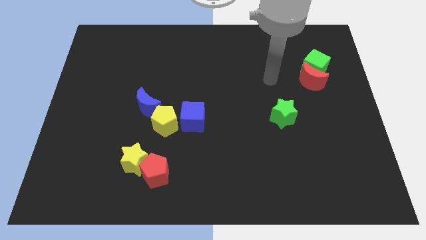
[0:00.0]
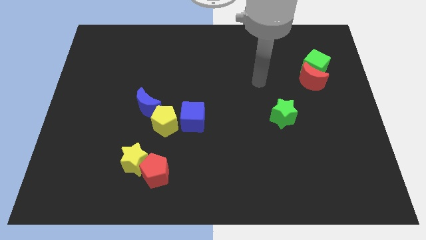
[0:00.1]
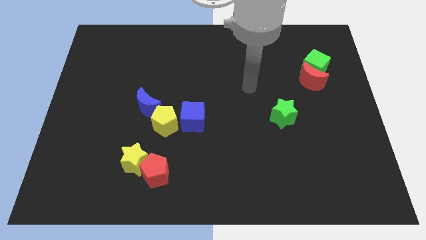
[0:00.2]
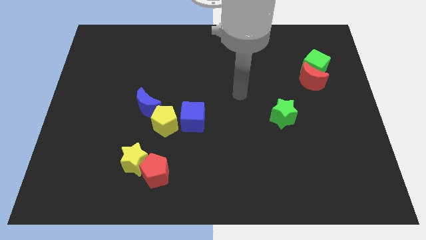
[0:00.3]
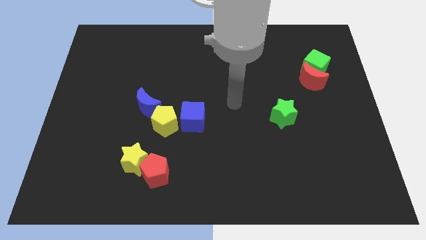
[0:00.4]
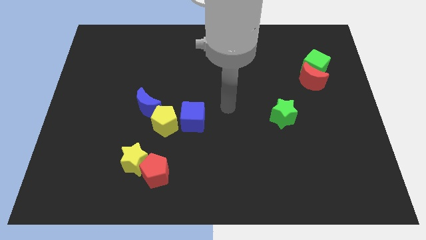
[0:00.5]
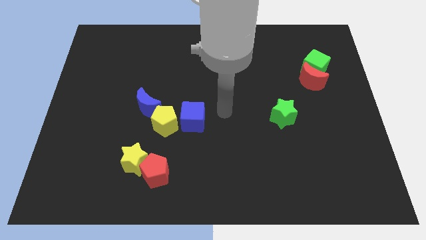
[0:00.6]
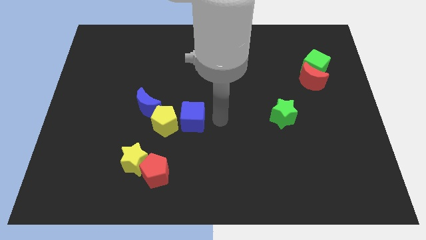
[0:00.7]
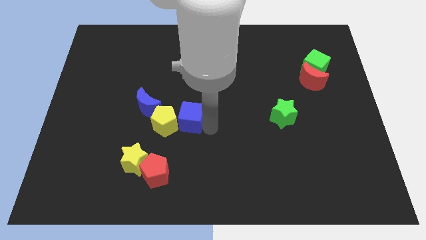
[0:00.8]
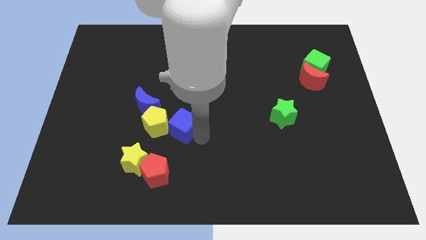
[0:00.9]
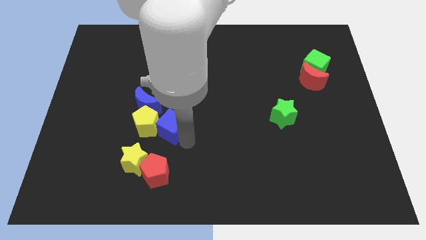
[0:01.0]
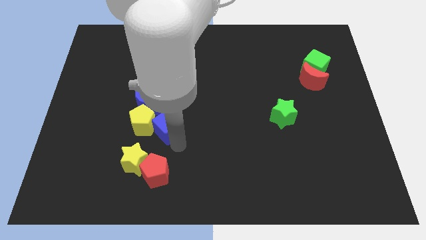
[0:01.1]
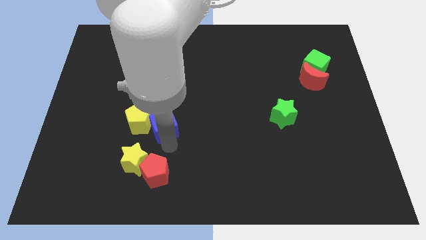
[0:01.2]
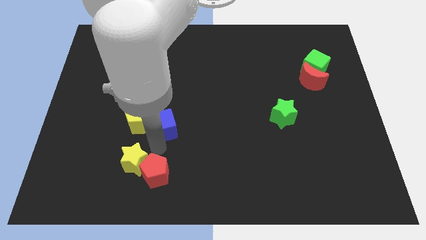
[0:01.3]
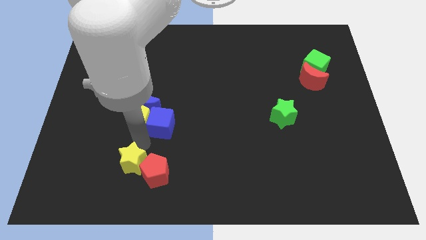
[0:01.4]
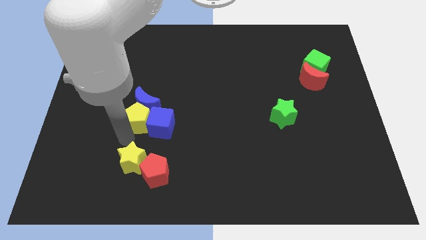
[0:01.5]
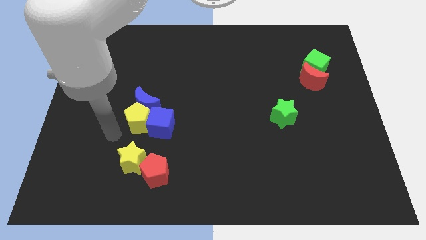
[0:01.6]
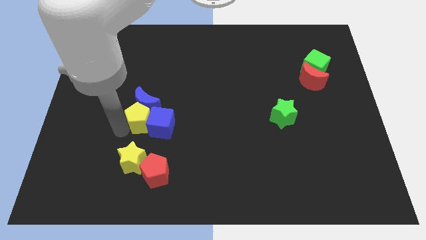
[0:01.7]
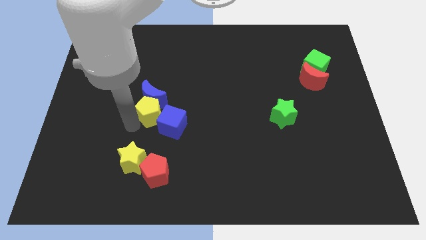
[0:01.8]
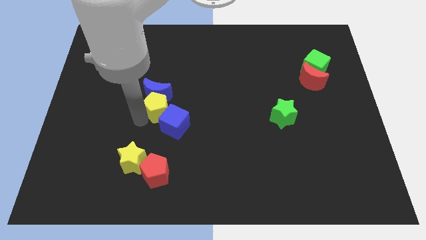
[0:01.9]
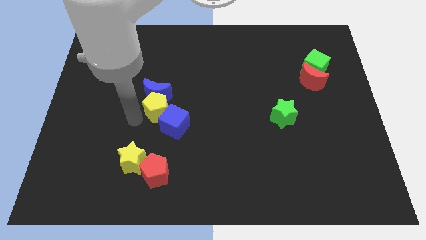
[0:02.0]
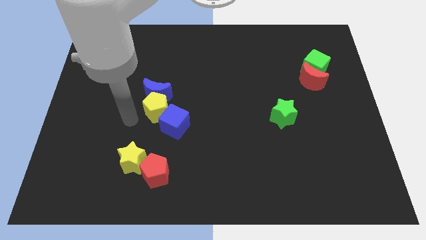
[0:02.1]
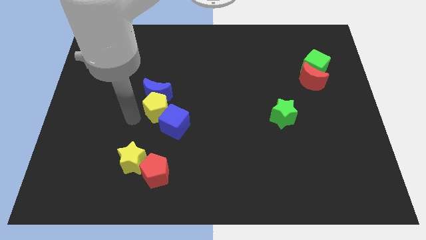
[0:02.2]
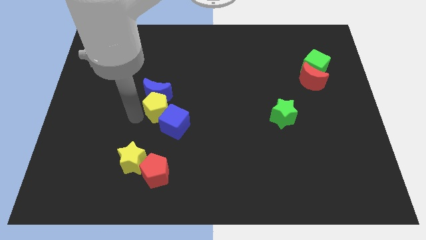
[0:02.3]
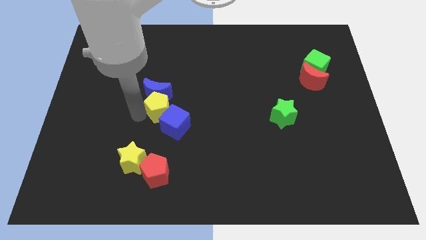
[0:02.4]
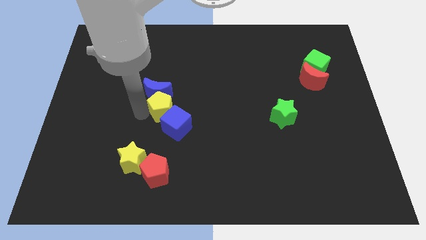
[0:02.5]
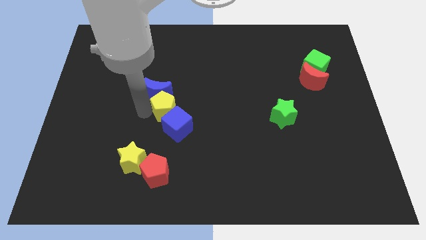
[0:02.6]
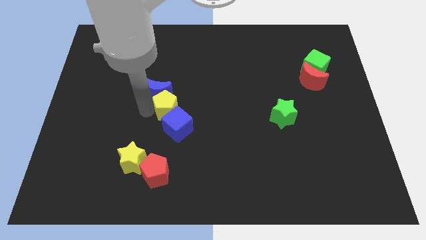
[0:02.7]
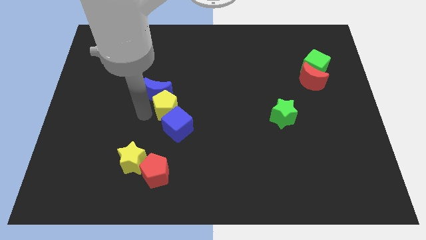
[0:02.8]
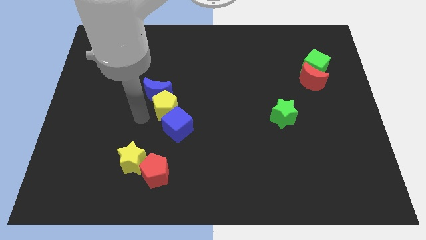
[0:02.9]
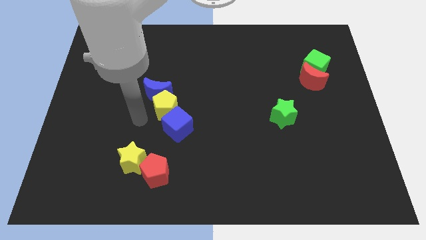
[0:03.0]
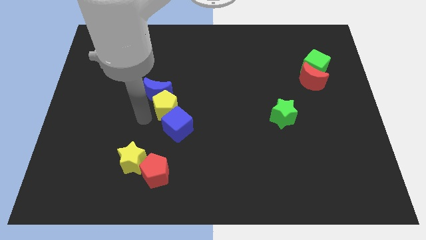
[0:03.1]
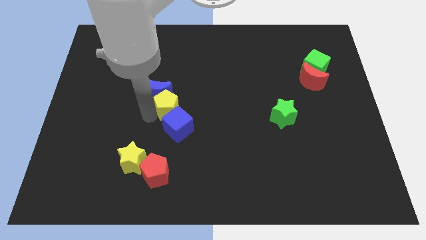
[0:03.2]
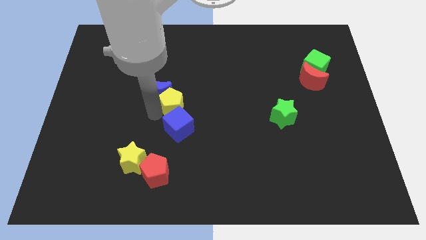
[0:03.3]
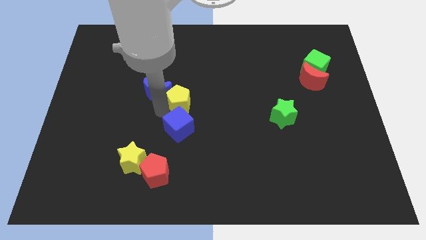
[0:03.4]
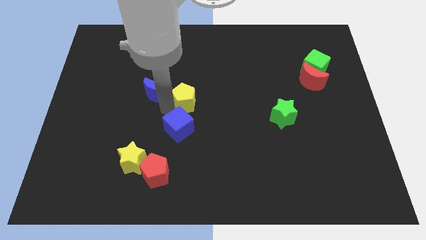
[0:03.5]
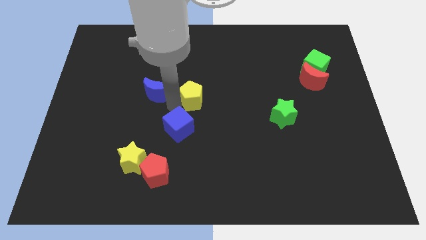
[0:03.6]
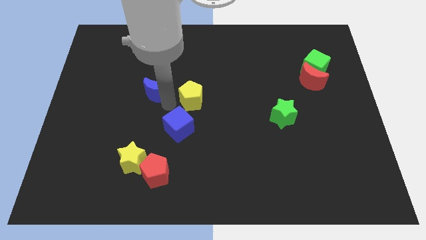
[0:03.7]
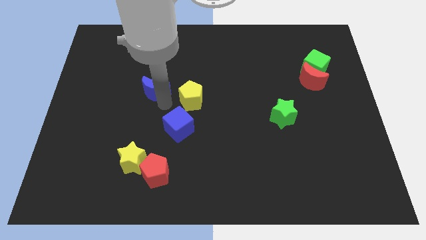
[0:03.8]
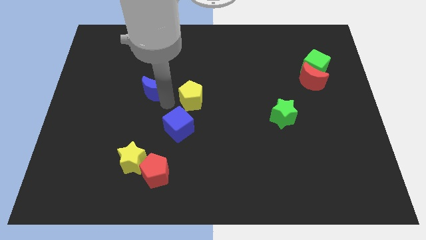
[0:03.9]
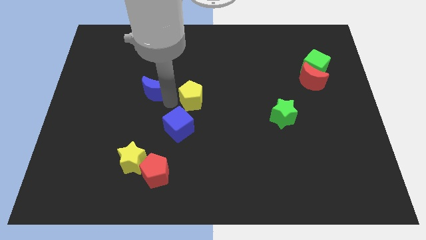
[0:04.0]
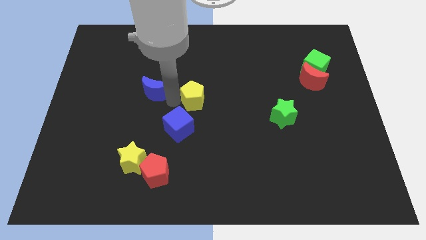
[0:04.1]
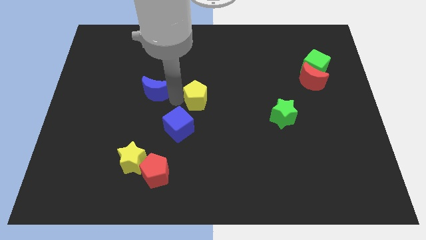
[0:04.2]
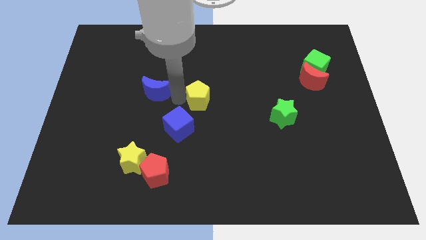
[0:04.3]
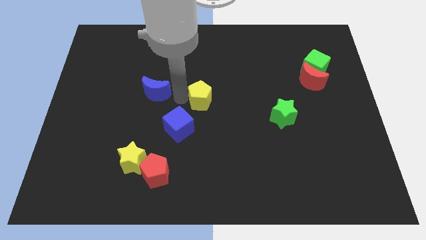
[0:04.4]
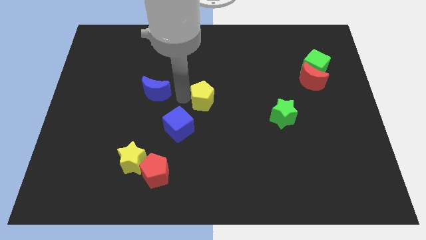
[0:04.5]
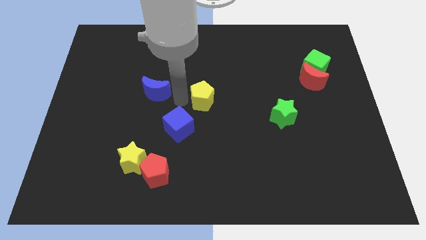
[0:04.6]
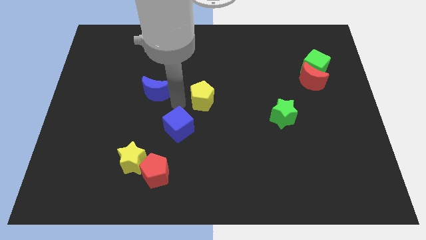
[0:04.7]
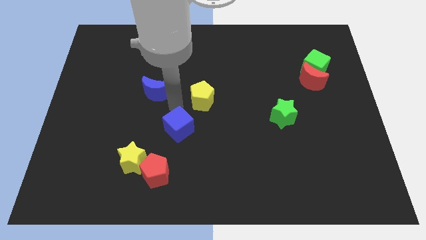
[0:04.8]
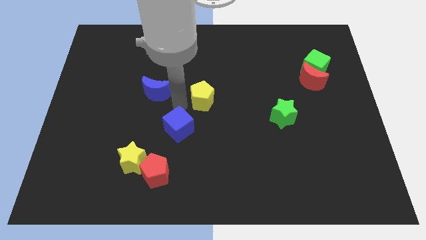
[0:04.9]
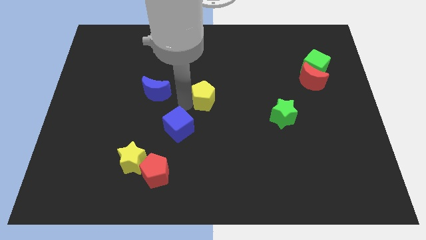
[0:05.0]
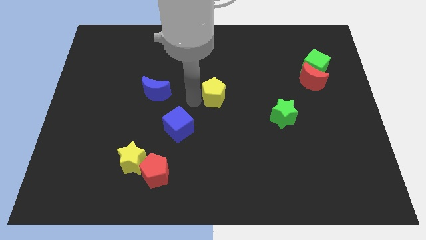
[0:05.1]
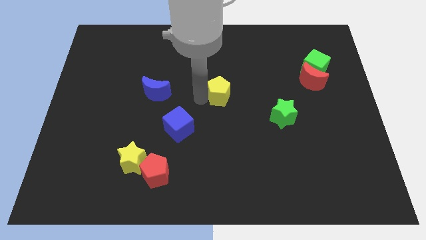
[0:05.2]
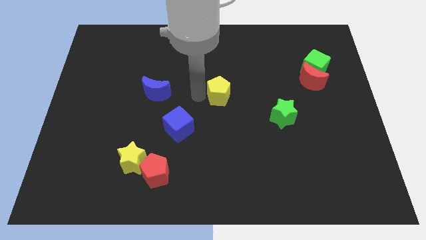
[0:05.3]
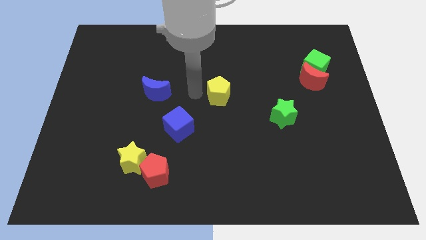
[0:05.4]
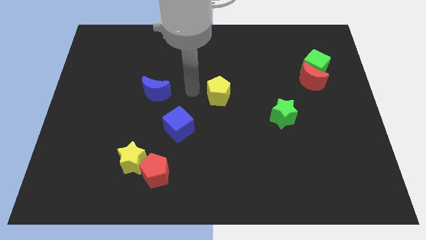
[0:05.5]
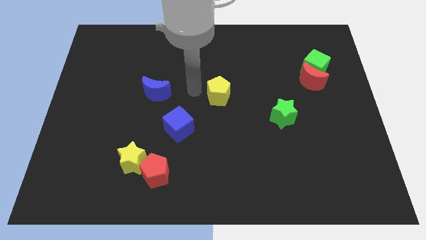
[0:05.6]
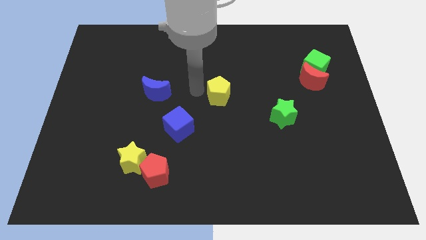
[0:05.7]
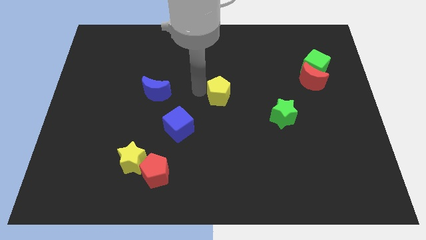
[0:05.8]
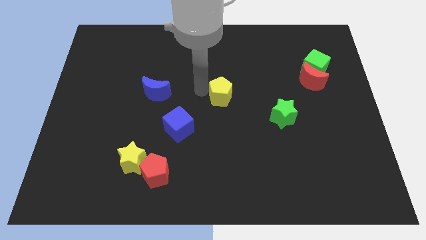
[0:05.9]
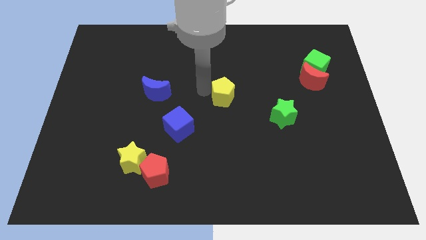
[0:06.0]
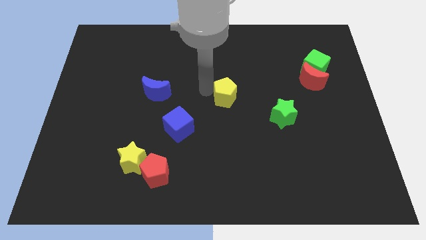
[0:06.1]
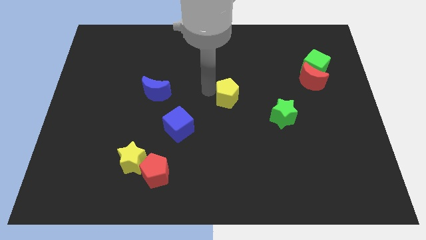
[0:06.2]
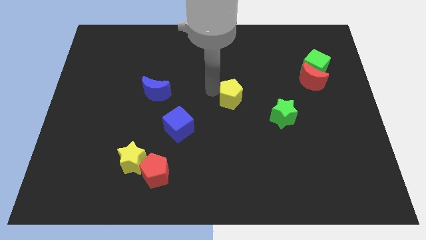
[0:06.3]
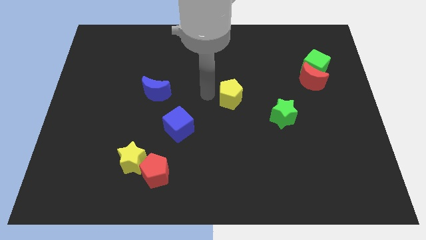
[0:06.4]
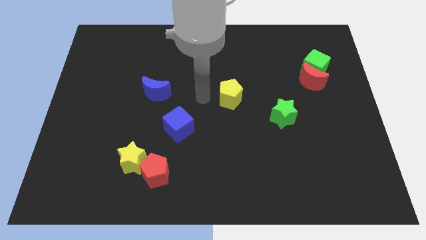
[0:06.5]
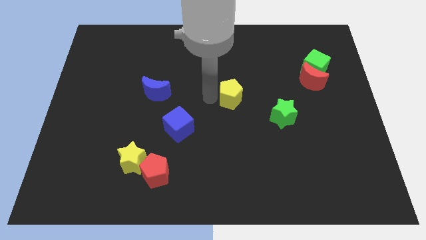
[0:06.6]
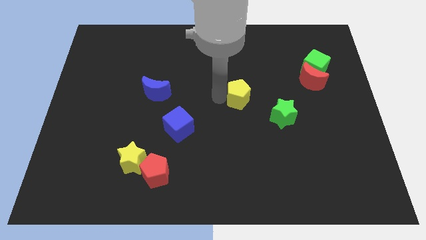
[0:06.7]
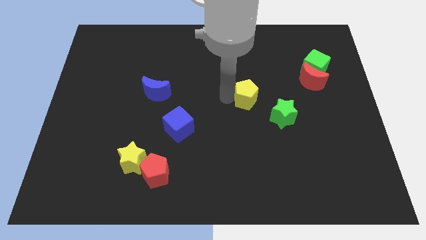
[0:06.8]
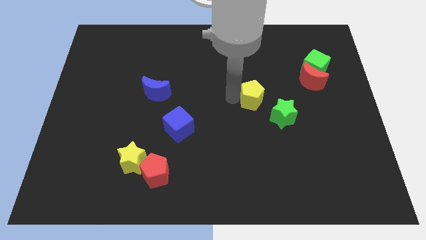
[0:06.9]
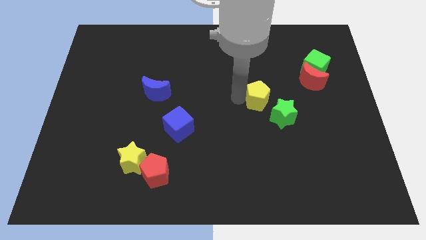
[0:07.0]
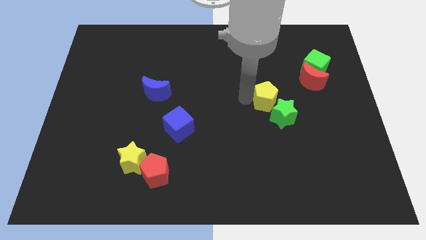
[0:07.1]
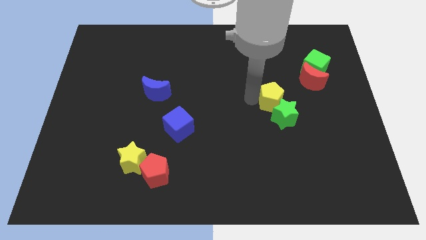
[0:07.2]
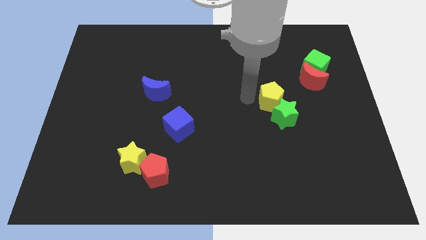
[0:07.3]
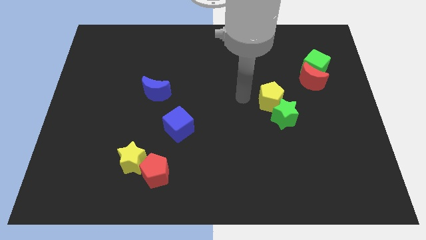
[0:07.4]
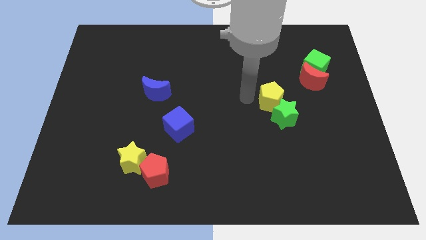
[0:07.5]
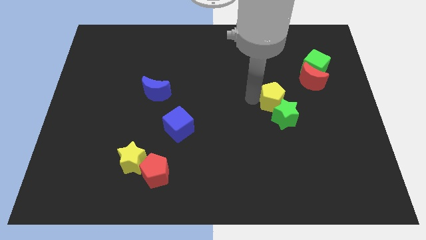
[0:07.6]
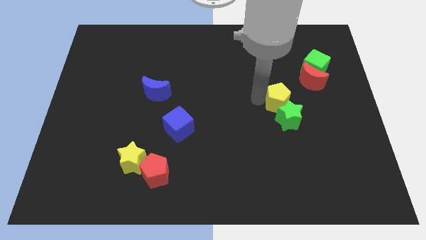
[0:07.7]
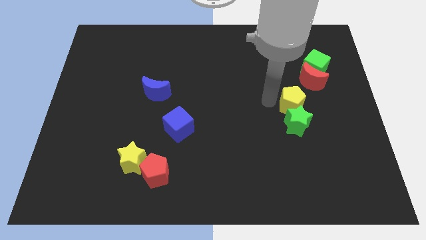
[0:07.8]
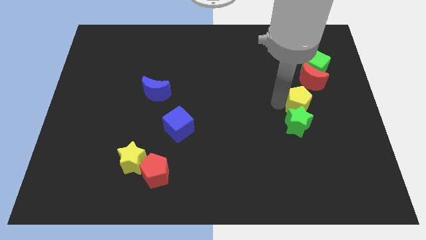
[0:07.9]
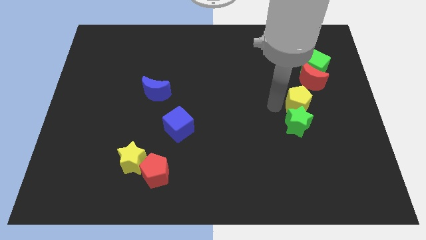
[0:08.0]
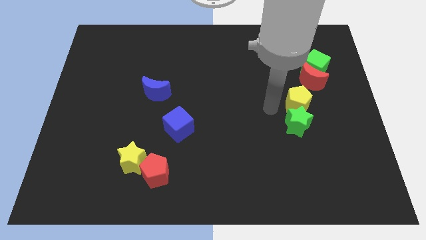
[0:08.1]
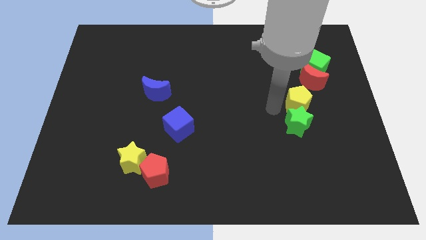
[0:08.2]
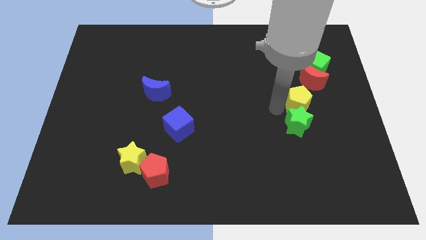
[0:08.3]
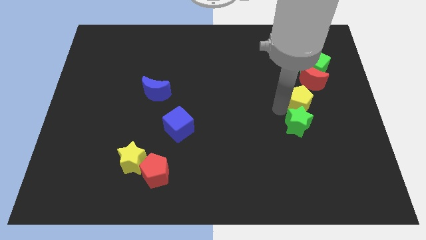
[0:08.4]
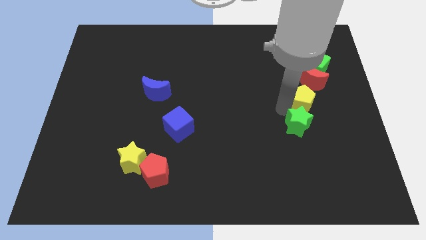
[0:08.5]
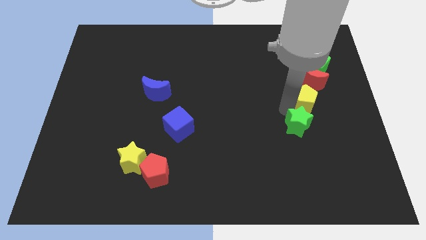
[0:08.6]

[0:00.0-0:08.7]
put the yellow pentagon to the bottom of the green cube
